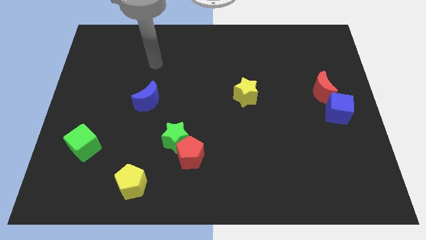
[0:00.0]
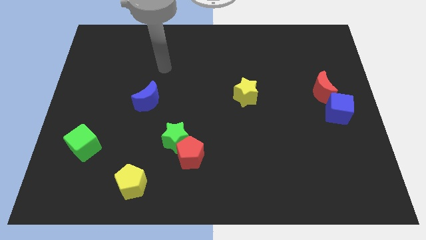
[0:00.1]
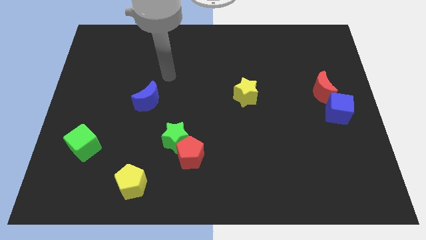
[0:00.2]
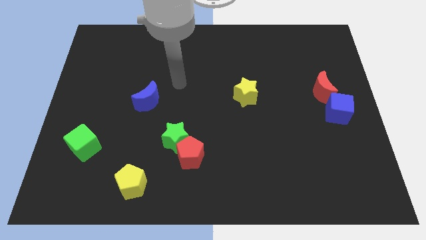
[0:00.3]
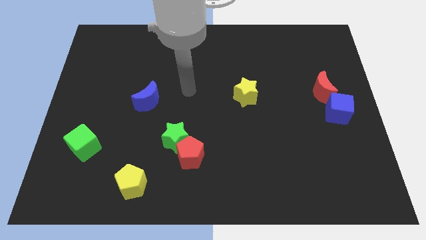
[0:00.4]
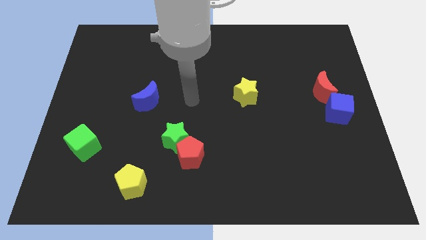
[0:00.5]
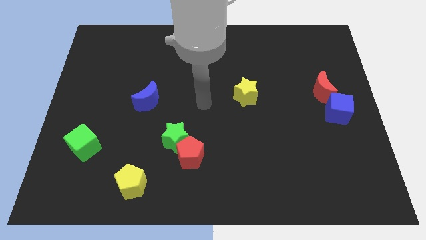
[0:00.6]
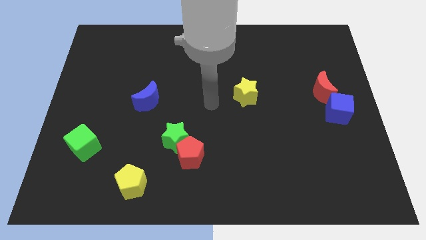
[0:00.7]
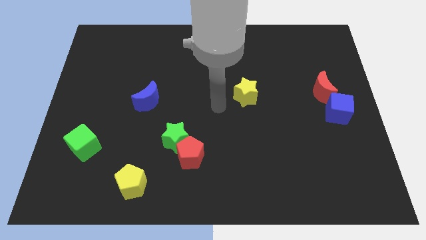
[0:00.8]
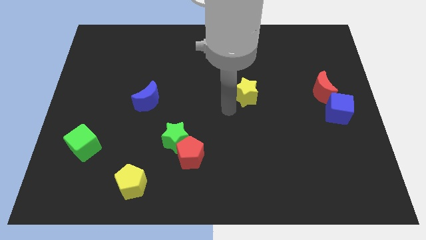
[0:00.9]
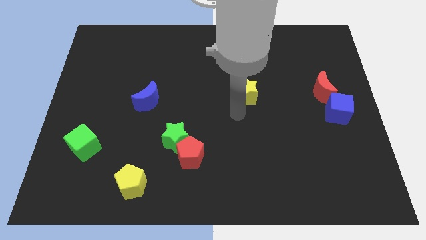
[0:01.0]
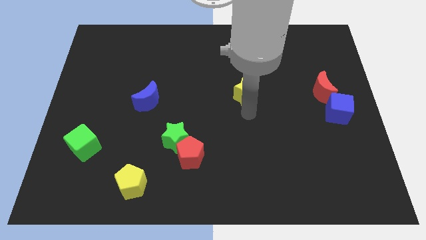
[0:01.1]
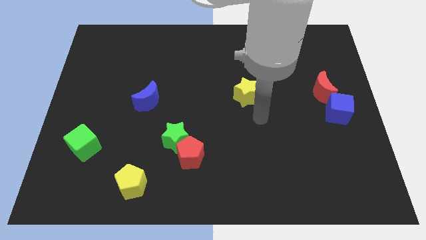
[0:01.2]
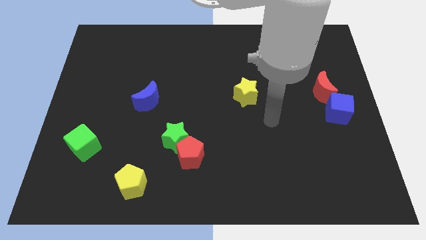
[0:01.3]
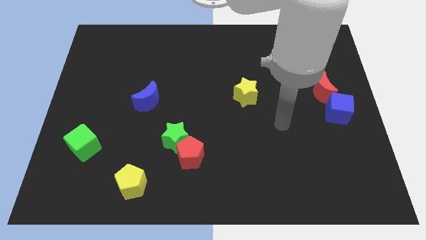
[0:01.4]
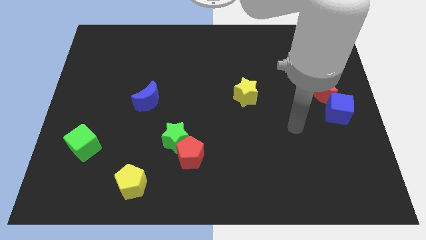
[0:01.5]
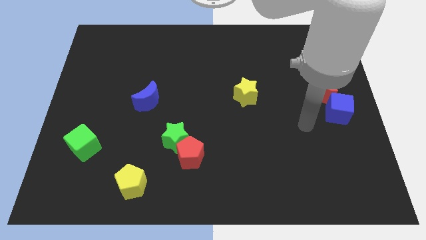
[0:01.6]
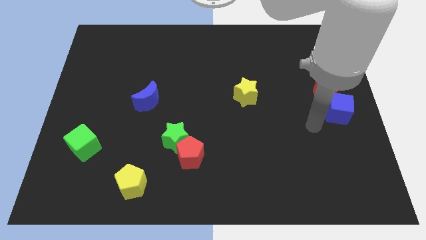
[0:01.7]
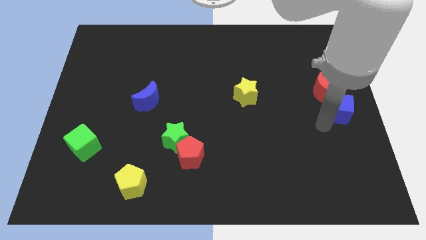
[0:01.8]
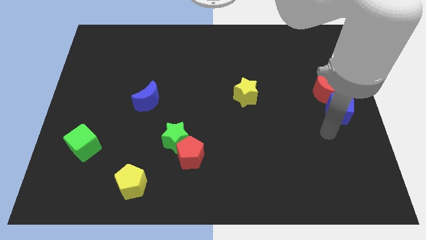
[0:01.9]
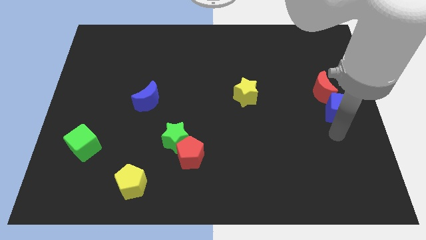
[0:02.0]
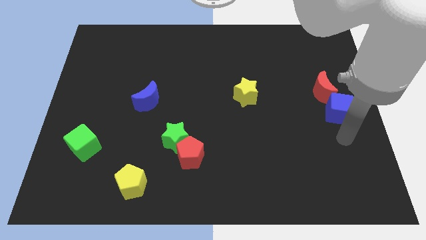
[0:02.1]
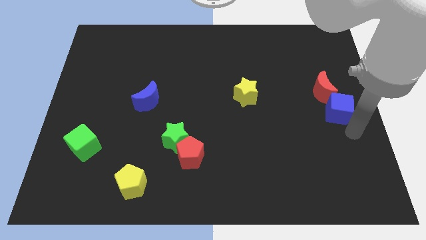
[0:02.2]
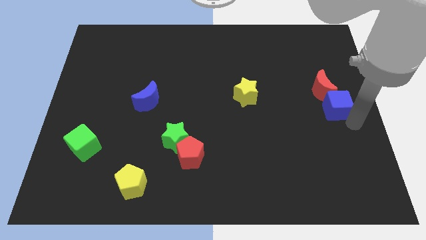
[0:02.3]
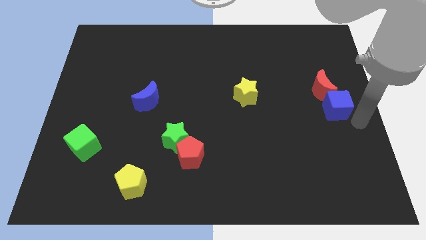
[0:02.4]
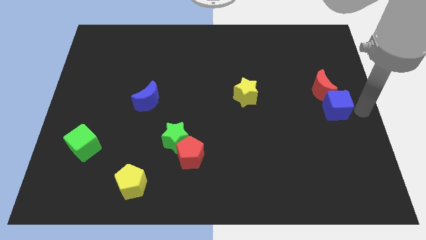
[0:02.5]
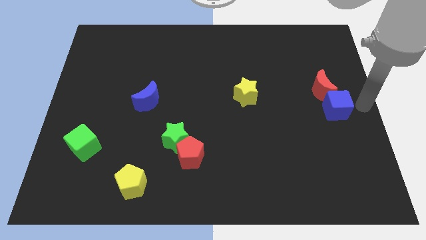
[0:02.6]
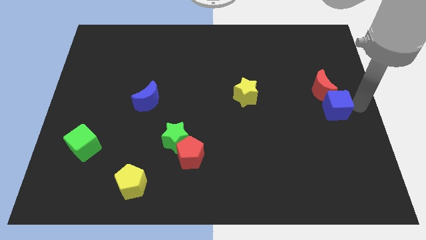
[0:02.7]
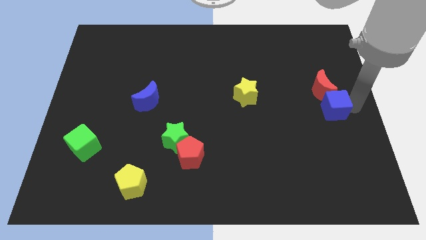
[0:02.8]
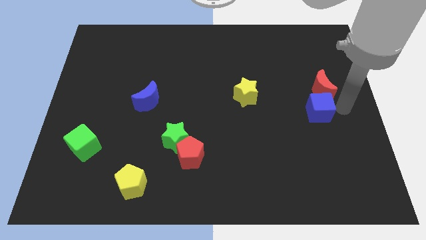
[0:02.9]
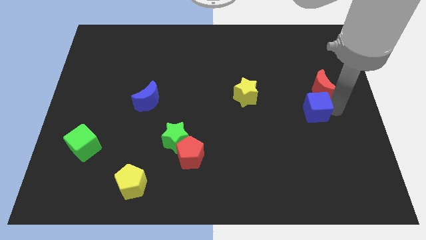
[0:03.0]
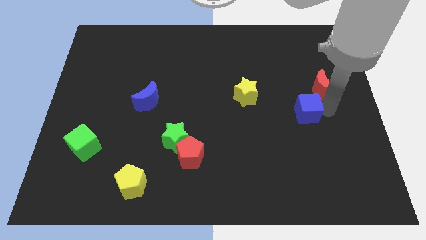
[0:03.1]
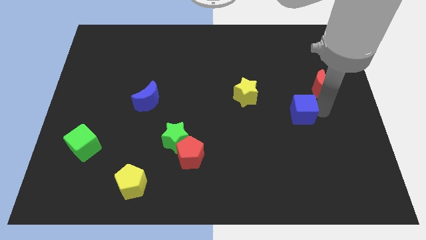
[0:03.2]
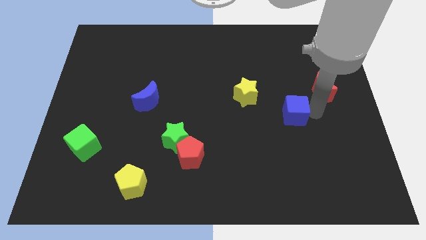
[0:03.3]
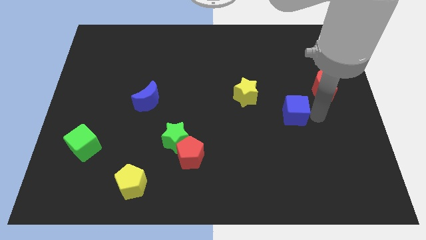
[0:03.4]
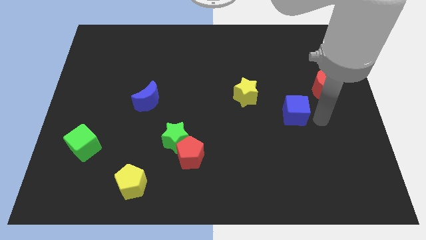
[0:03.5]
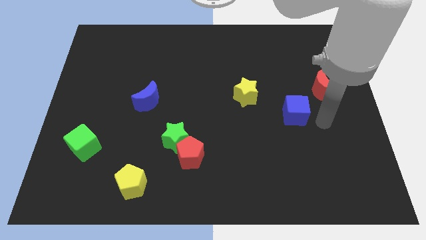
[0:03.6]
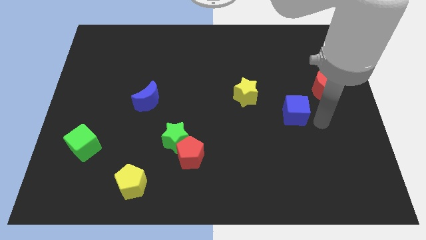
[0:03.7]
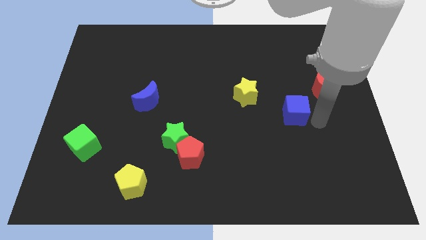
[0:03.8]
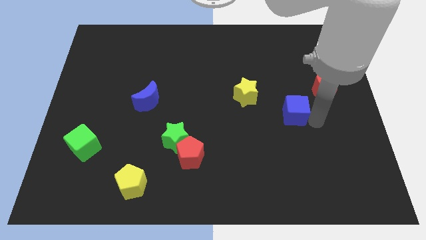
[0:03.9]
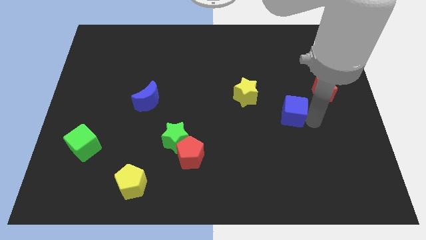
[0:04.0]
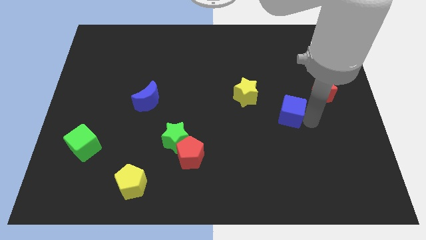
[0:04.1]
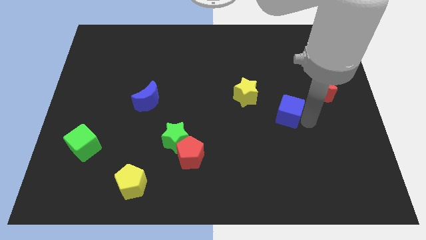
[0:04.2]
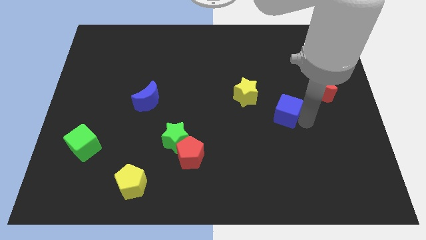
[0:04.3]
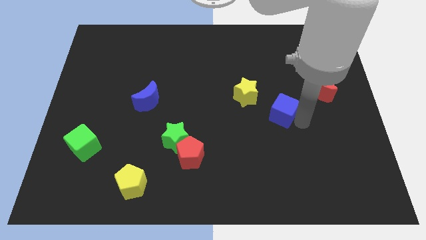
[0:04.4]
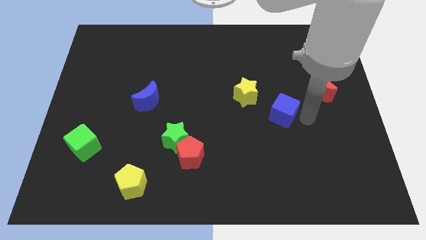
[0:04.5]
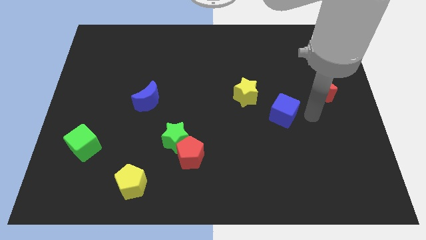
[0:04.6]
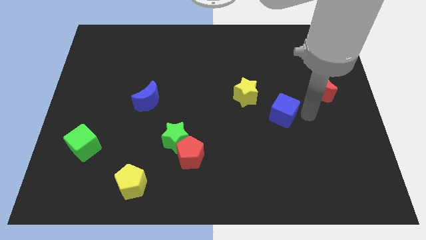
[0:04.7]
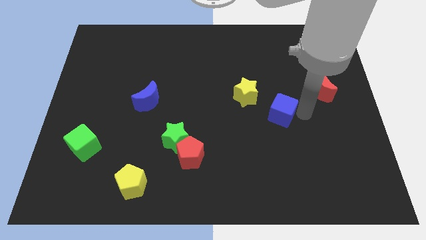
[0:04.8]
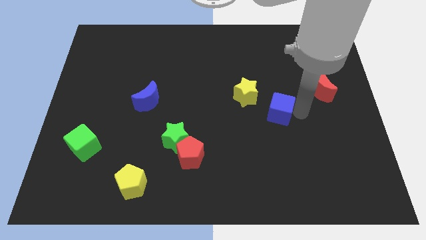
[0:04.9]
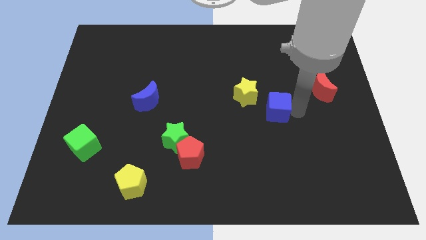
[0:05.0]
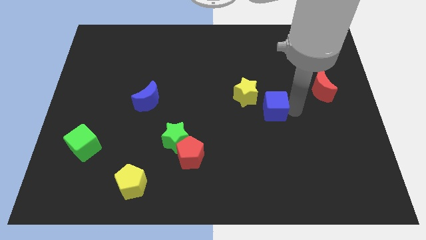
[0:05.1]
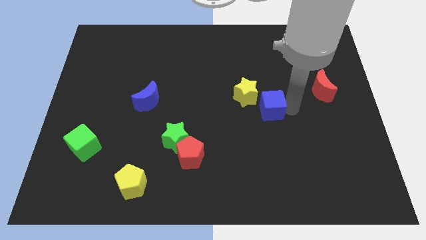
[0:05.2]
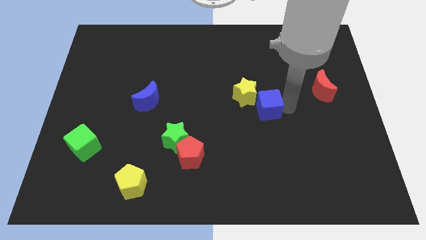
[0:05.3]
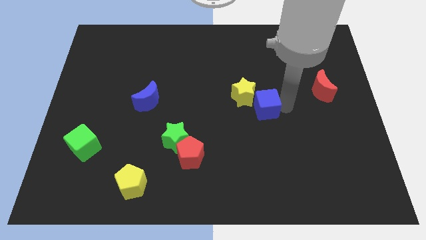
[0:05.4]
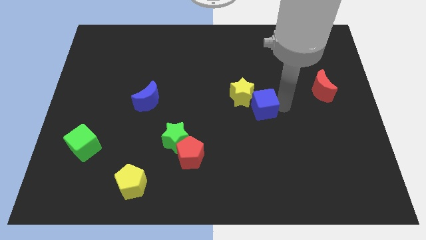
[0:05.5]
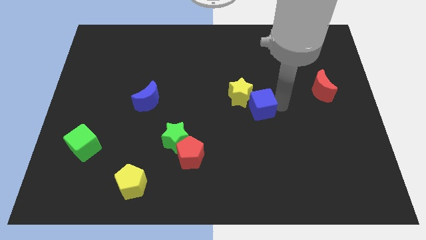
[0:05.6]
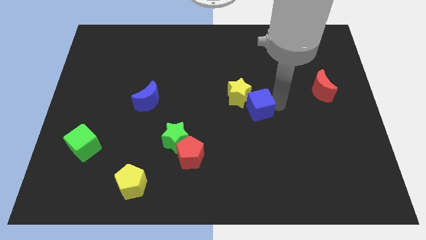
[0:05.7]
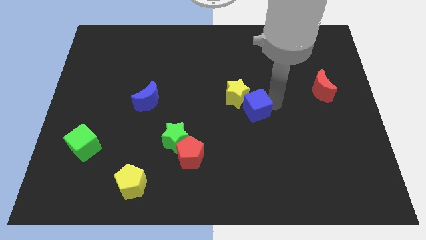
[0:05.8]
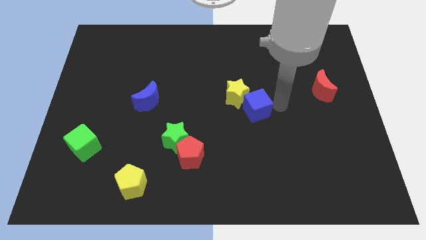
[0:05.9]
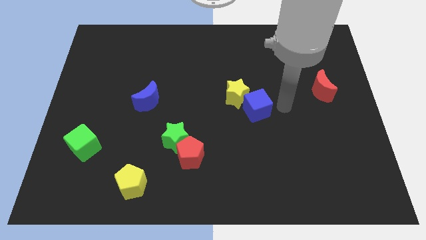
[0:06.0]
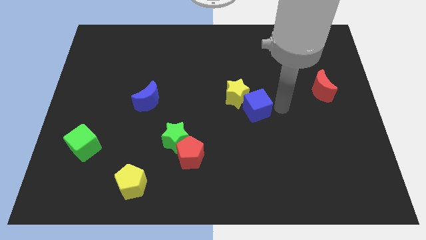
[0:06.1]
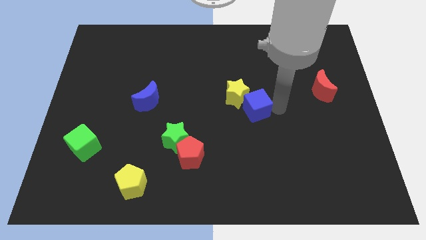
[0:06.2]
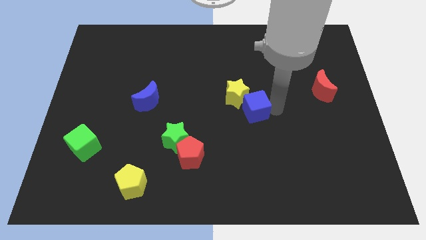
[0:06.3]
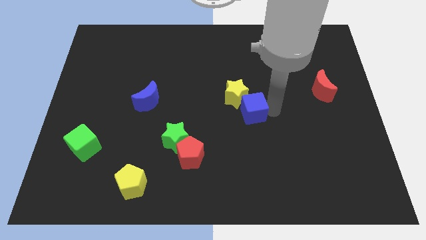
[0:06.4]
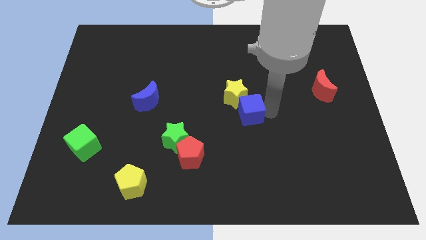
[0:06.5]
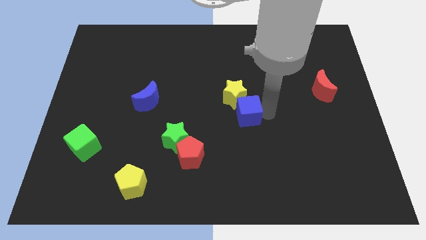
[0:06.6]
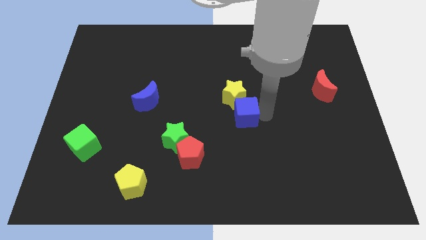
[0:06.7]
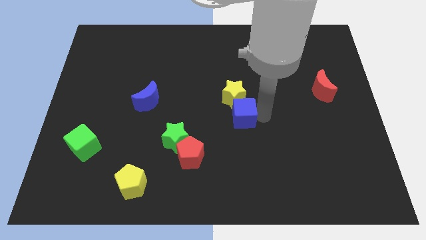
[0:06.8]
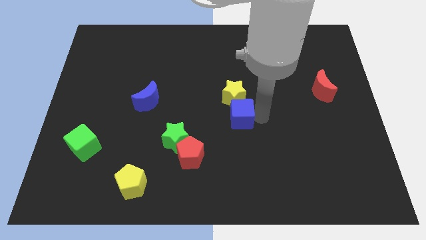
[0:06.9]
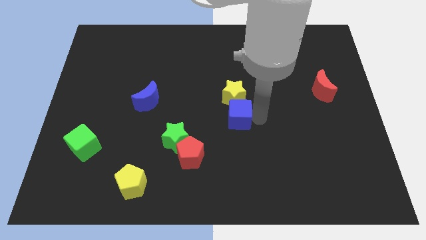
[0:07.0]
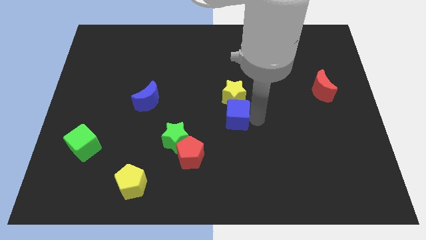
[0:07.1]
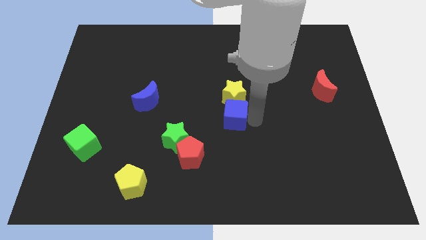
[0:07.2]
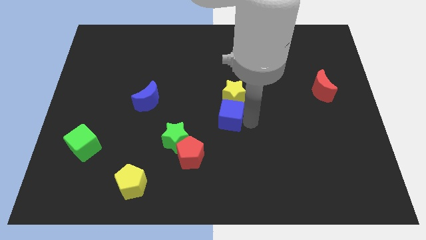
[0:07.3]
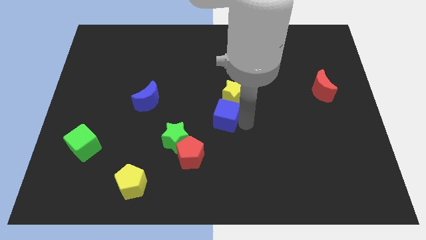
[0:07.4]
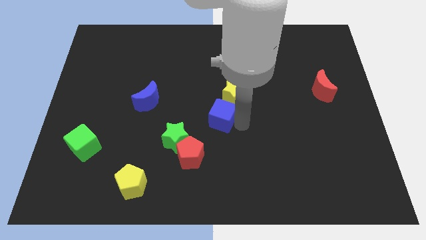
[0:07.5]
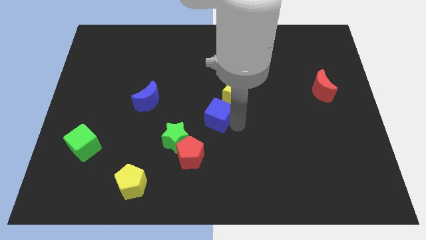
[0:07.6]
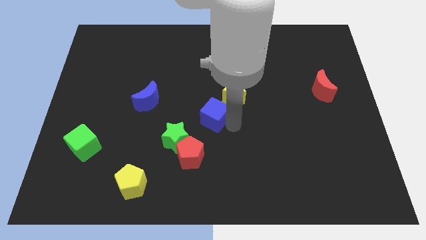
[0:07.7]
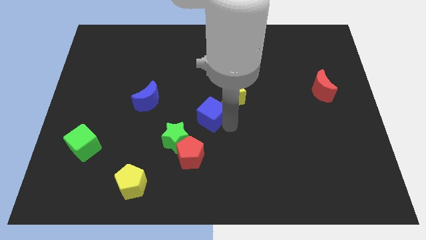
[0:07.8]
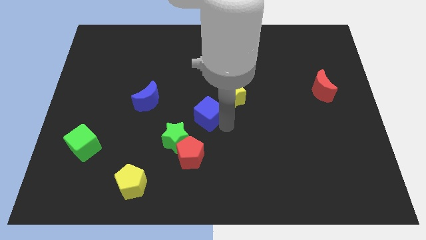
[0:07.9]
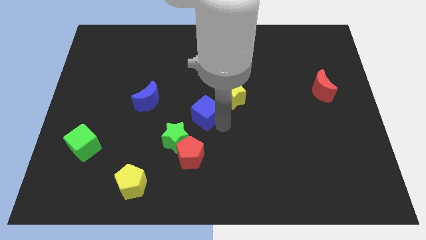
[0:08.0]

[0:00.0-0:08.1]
move the blue cube just right of the blue moon
